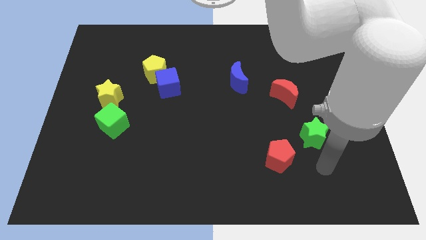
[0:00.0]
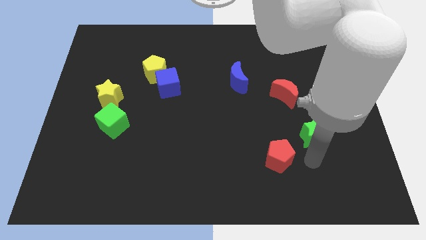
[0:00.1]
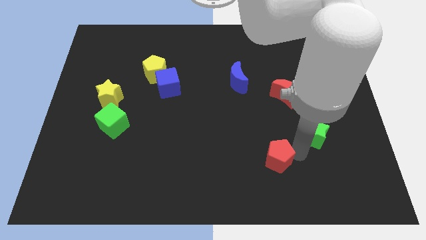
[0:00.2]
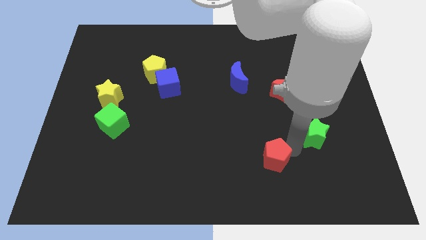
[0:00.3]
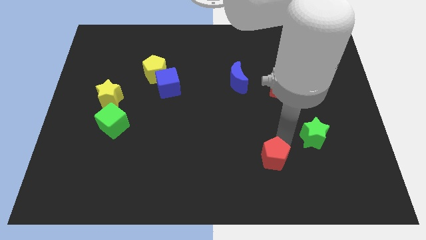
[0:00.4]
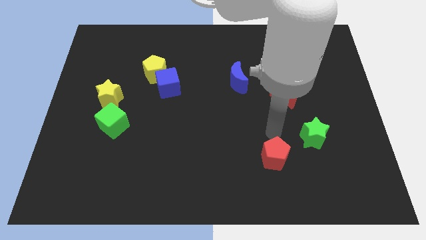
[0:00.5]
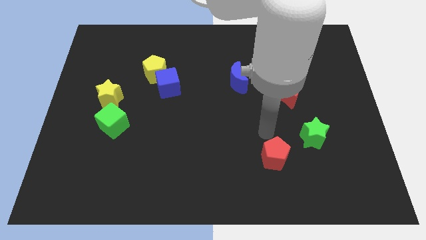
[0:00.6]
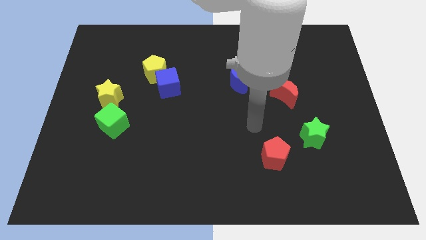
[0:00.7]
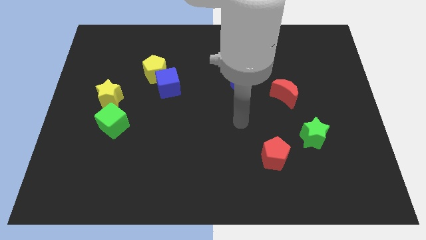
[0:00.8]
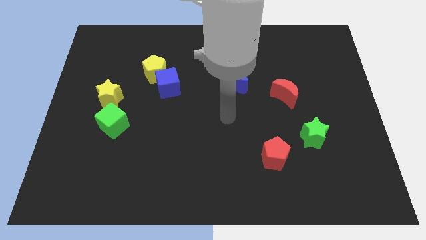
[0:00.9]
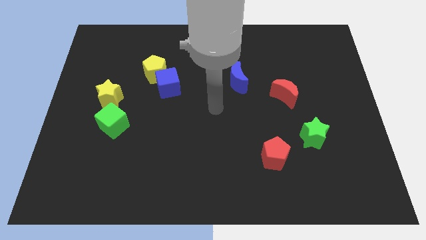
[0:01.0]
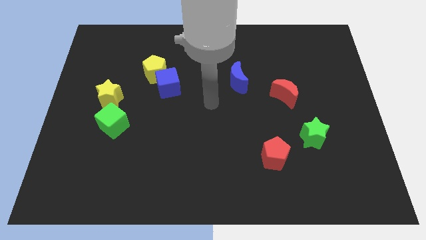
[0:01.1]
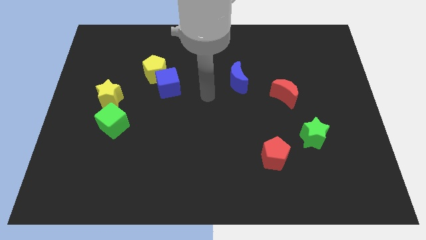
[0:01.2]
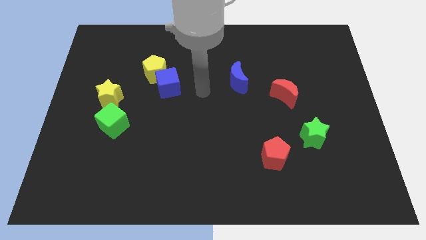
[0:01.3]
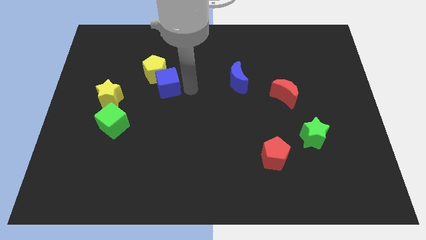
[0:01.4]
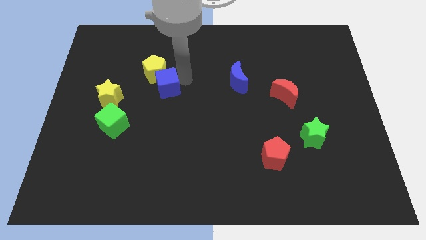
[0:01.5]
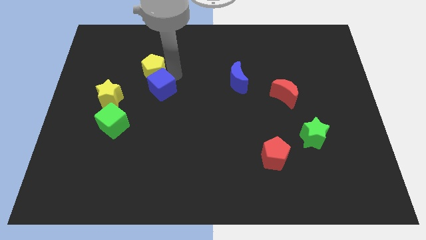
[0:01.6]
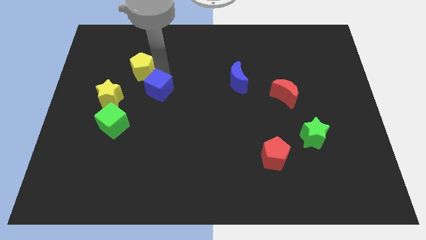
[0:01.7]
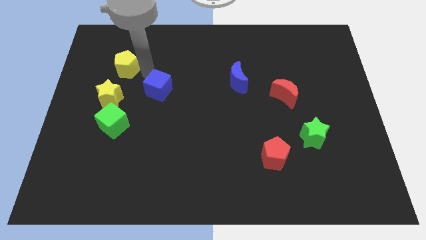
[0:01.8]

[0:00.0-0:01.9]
separate the blue cube from the yellow pentagon

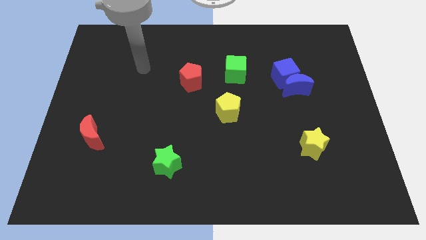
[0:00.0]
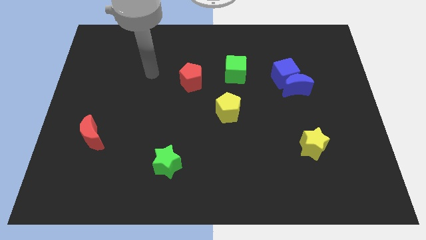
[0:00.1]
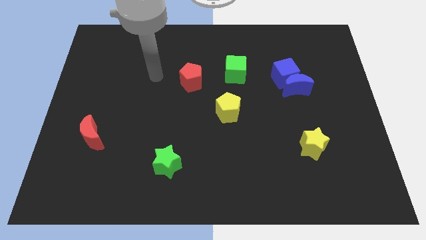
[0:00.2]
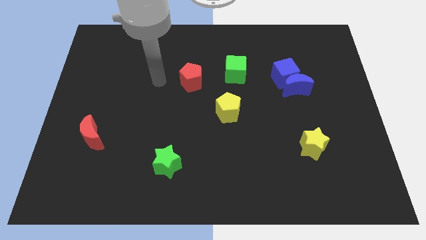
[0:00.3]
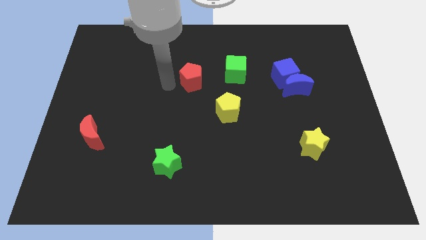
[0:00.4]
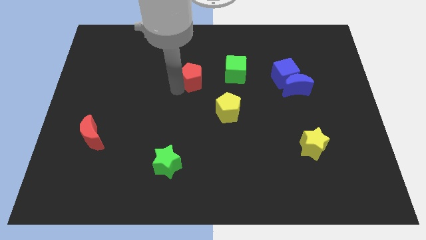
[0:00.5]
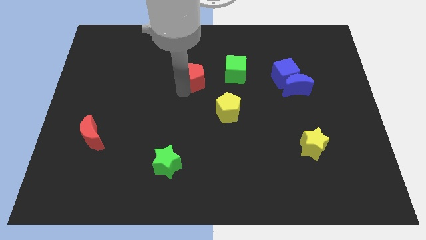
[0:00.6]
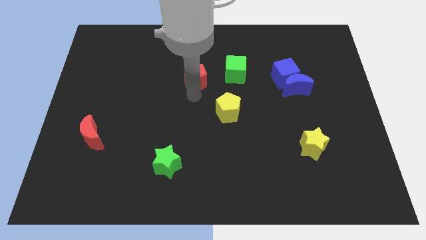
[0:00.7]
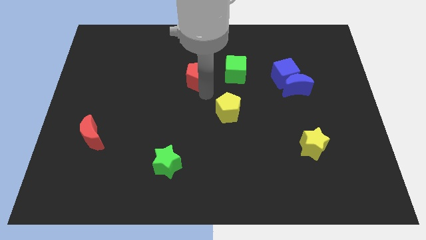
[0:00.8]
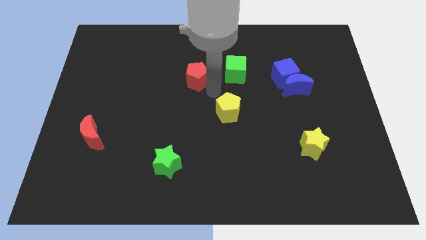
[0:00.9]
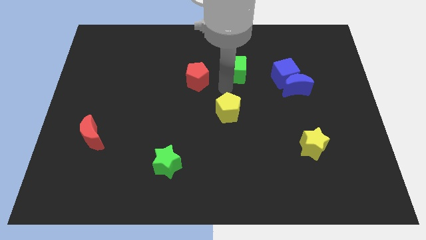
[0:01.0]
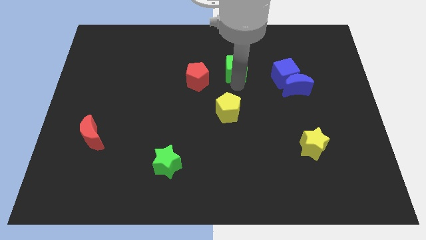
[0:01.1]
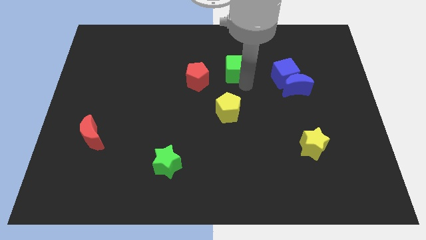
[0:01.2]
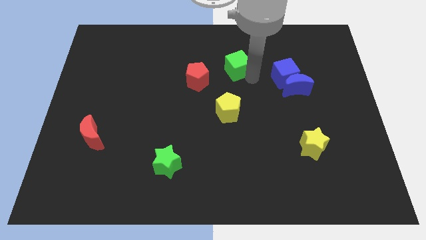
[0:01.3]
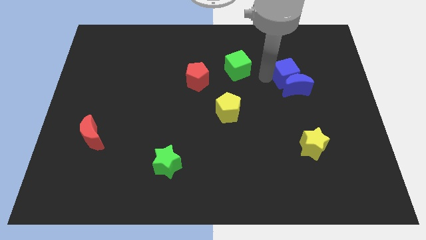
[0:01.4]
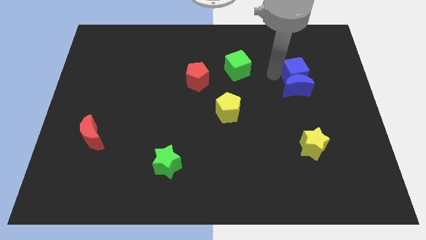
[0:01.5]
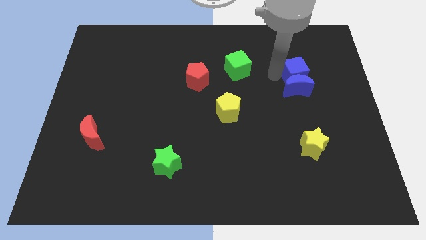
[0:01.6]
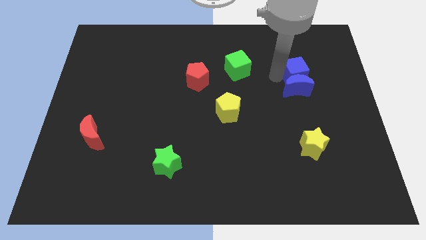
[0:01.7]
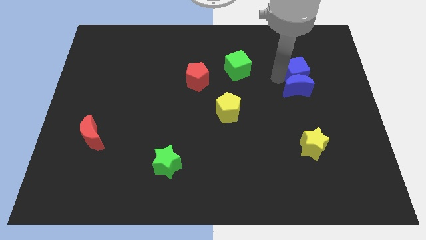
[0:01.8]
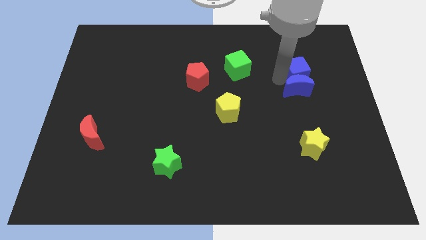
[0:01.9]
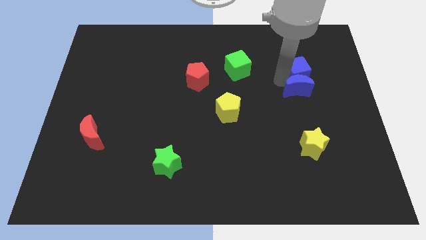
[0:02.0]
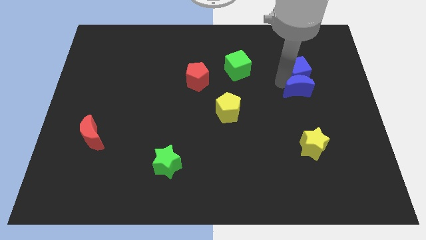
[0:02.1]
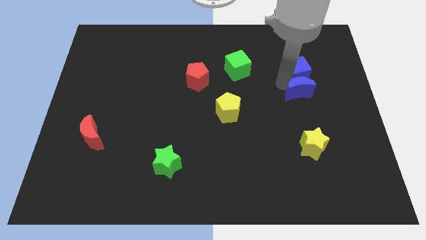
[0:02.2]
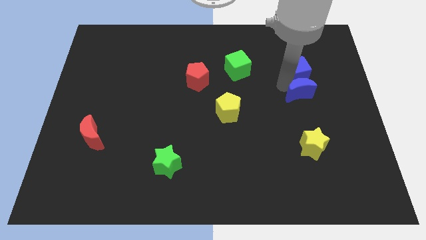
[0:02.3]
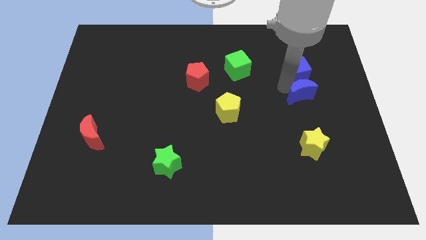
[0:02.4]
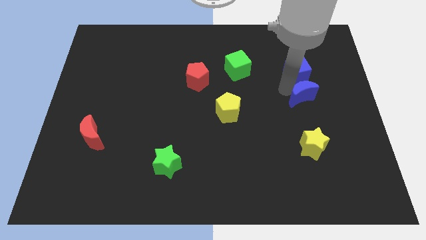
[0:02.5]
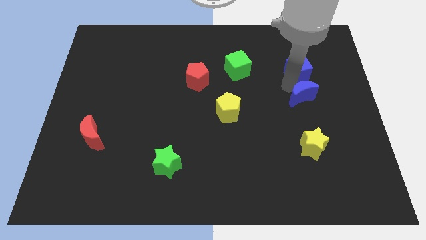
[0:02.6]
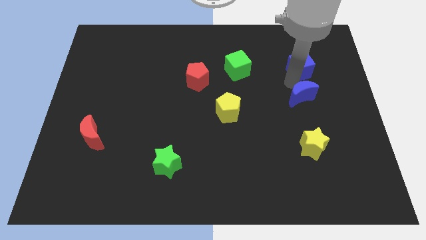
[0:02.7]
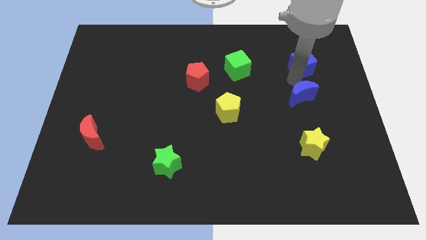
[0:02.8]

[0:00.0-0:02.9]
separate the blue moon from the blue cube

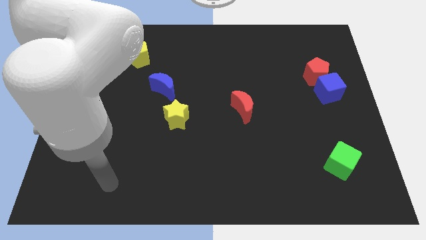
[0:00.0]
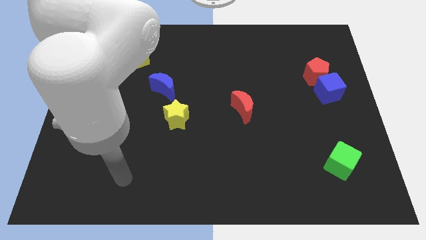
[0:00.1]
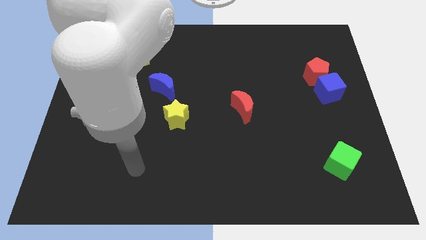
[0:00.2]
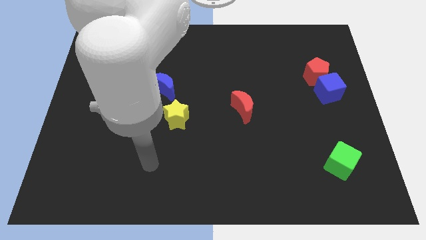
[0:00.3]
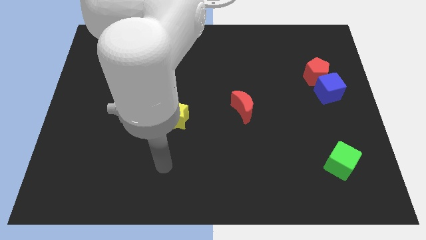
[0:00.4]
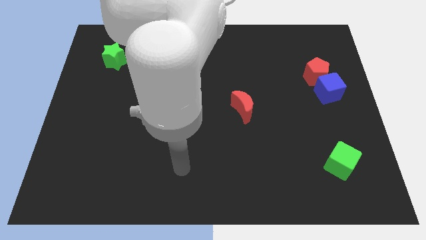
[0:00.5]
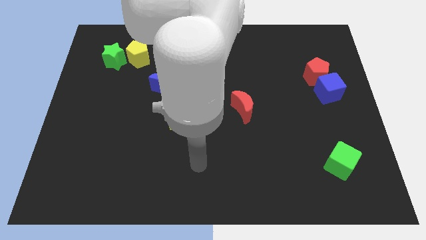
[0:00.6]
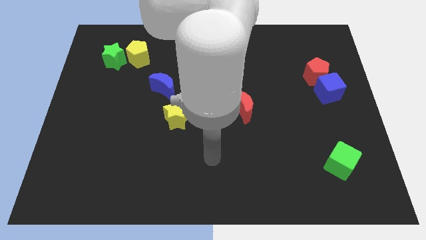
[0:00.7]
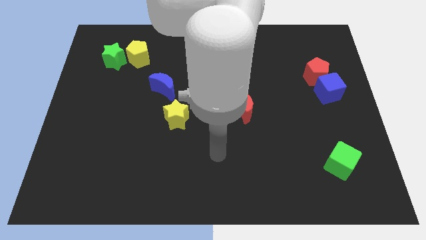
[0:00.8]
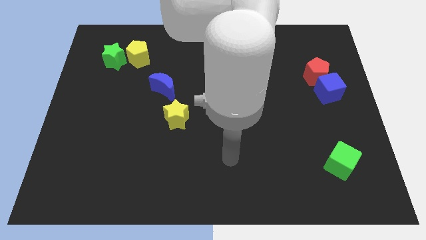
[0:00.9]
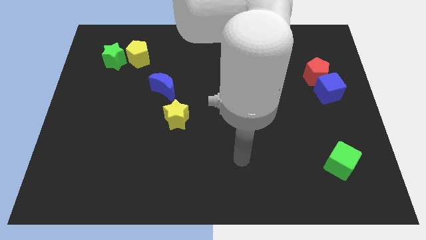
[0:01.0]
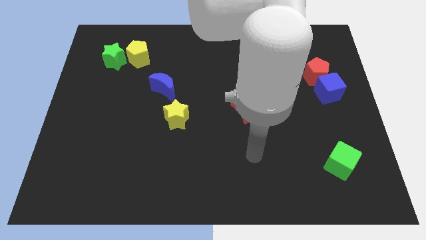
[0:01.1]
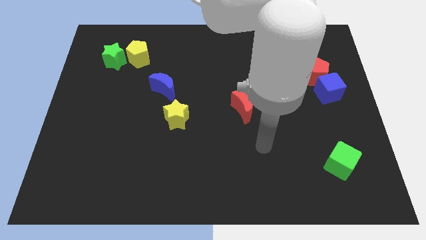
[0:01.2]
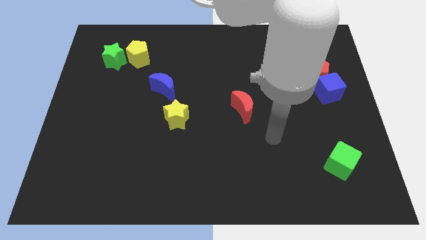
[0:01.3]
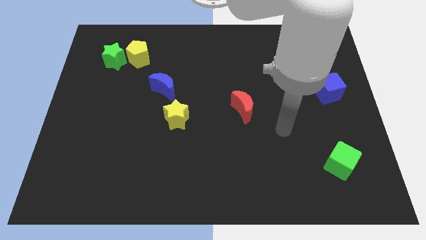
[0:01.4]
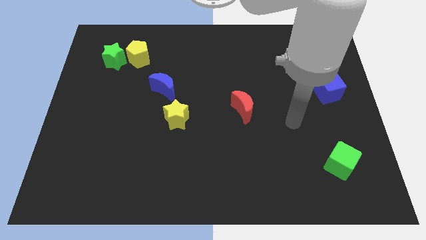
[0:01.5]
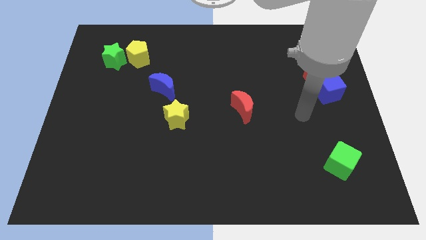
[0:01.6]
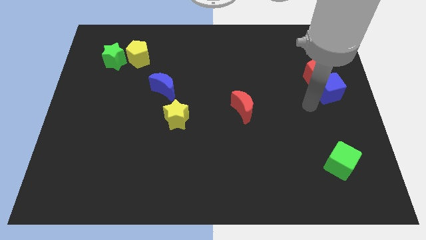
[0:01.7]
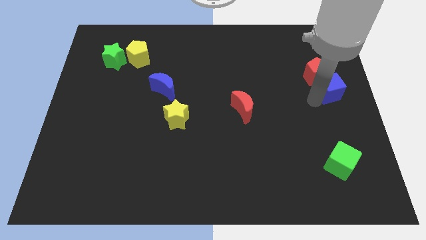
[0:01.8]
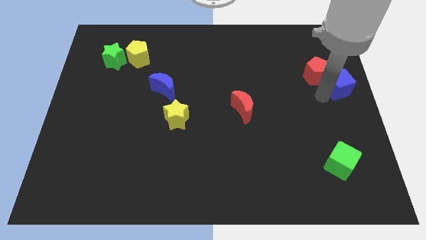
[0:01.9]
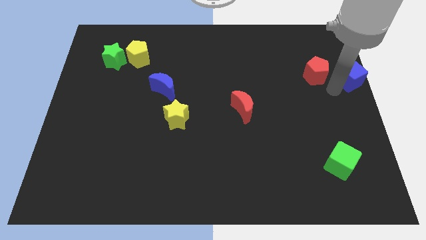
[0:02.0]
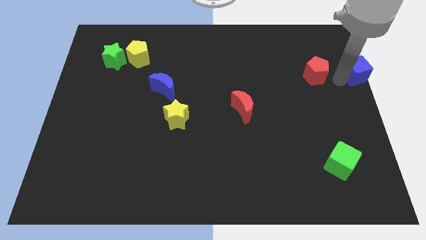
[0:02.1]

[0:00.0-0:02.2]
separate the red pentagon from the blue cube

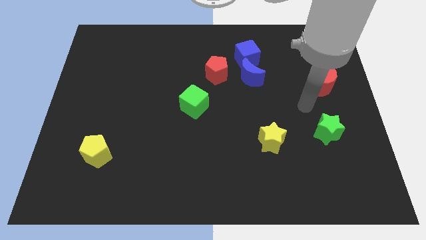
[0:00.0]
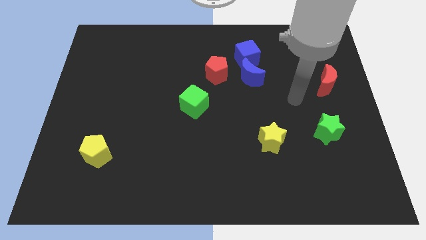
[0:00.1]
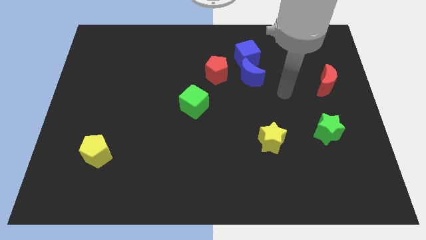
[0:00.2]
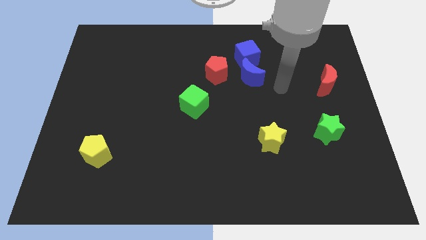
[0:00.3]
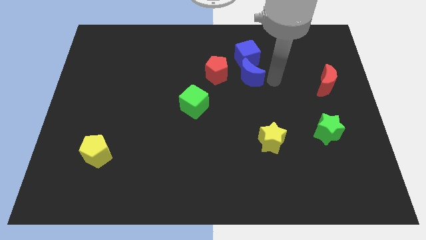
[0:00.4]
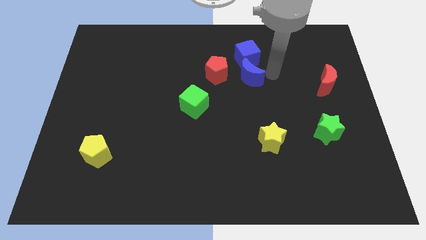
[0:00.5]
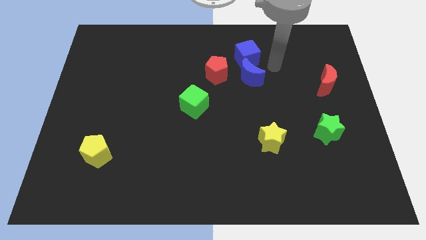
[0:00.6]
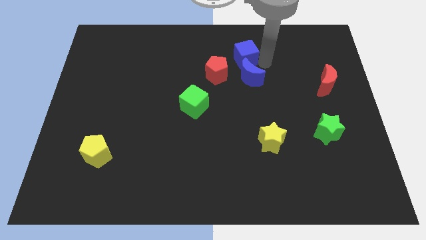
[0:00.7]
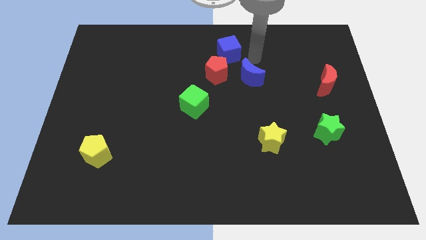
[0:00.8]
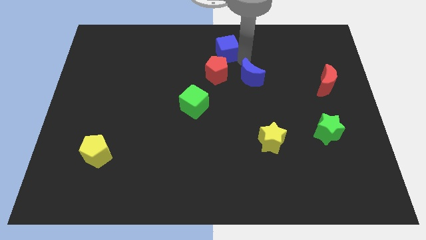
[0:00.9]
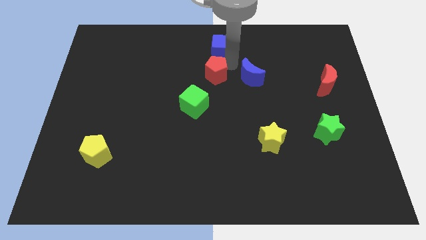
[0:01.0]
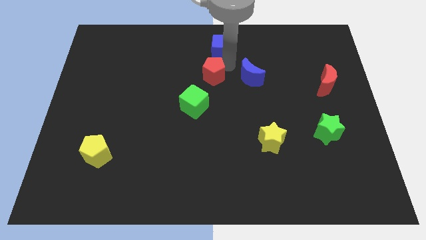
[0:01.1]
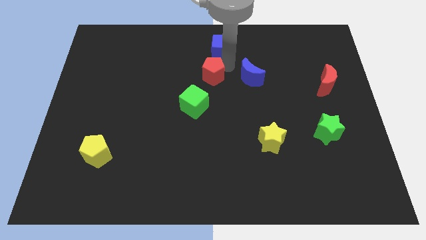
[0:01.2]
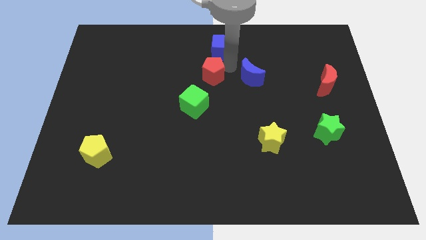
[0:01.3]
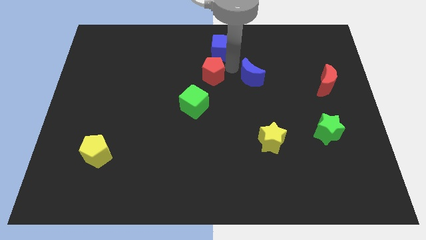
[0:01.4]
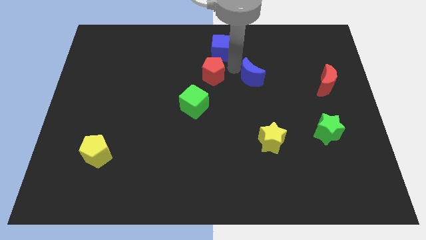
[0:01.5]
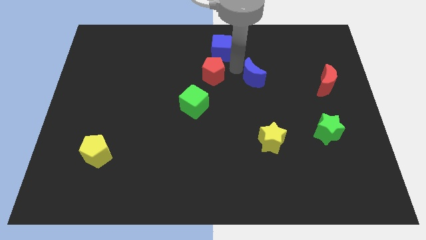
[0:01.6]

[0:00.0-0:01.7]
pull the blue moon apart from the blue cube and red pentagon

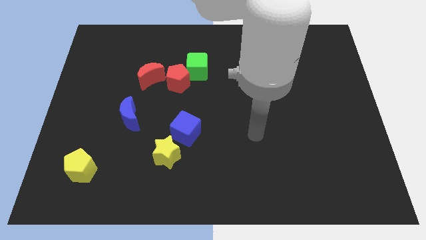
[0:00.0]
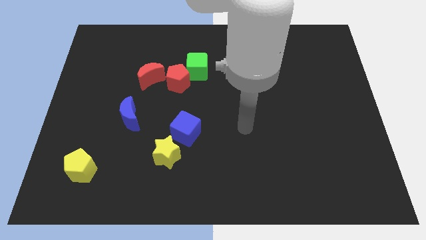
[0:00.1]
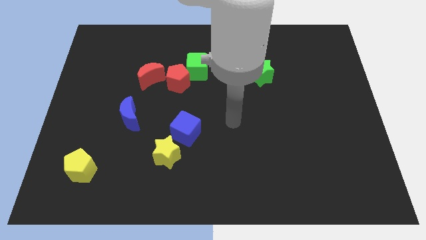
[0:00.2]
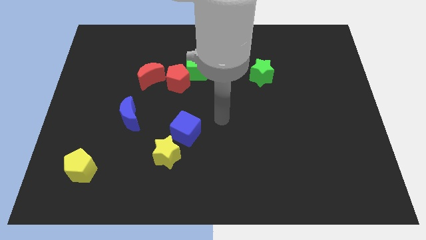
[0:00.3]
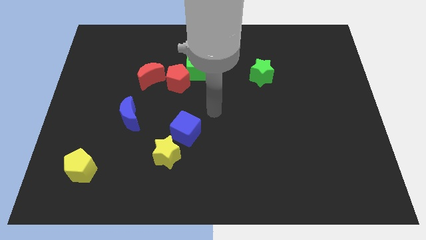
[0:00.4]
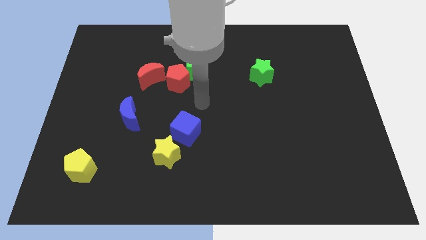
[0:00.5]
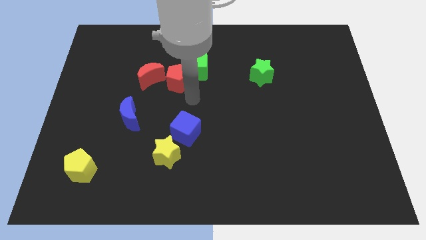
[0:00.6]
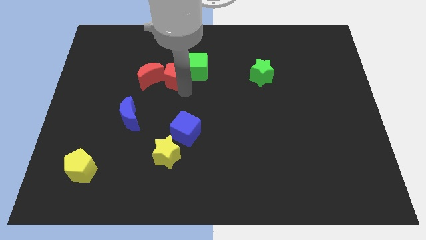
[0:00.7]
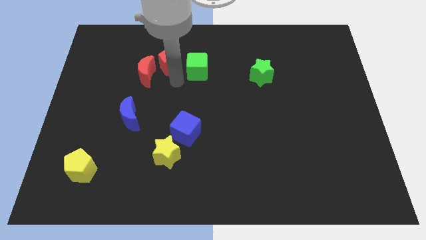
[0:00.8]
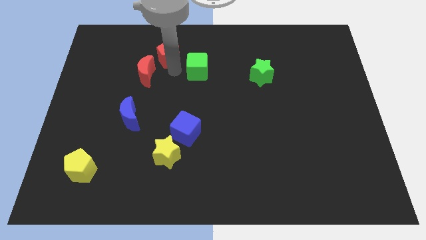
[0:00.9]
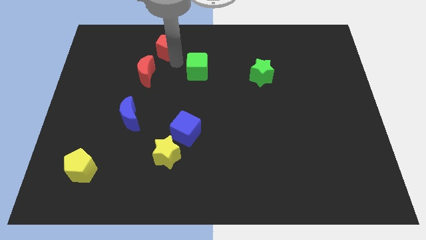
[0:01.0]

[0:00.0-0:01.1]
separate the green cube from the red pentagon
